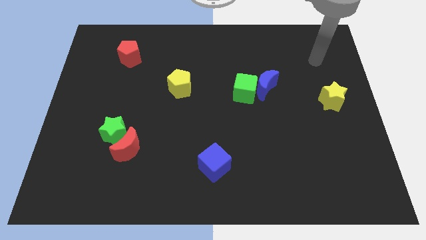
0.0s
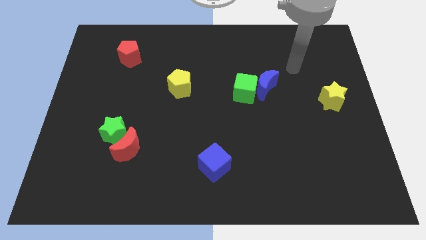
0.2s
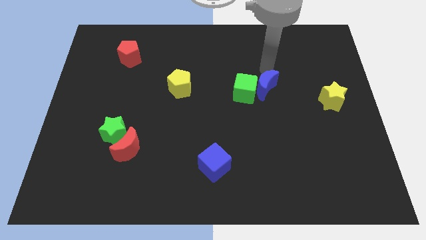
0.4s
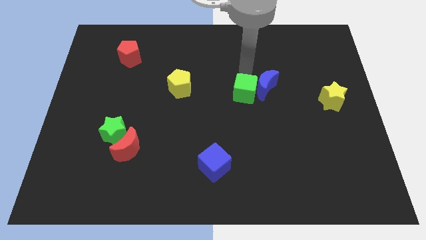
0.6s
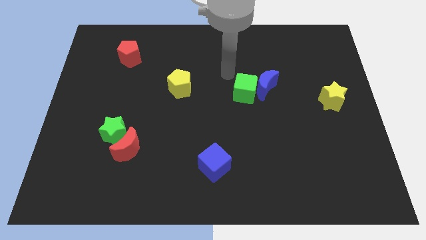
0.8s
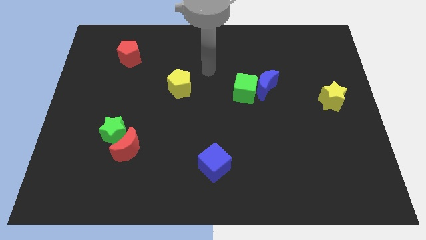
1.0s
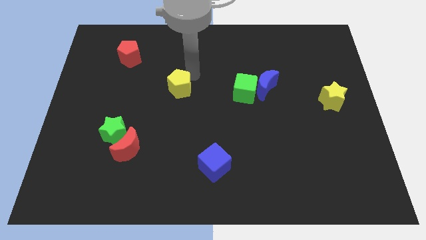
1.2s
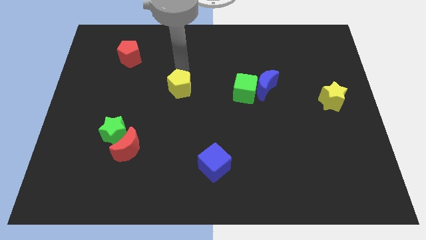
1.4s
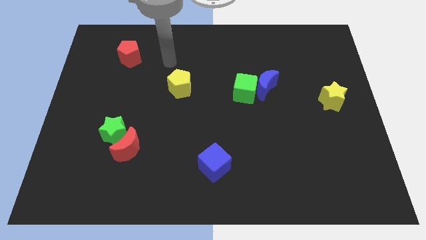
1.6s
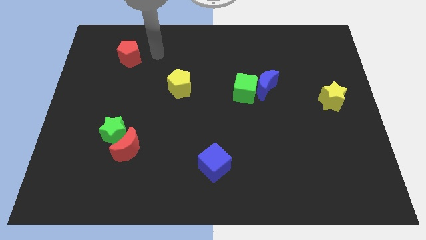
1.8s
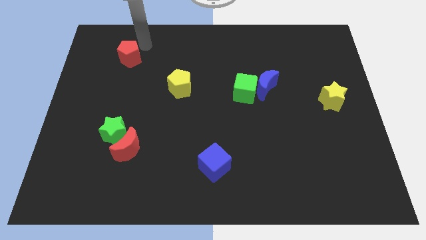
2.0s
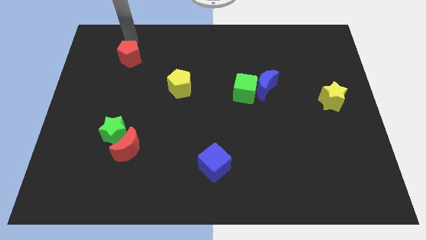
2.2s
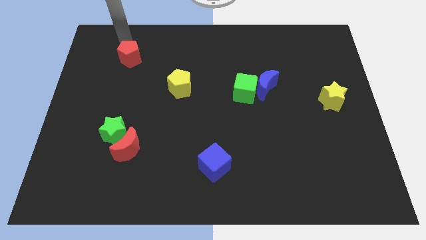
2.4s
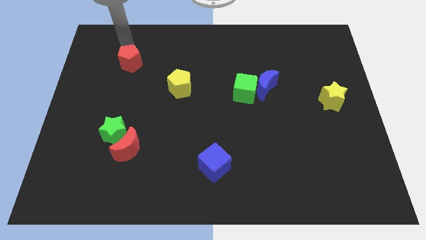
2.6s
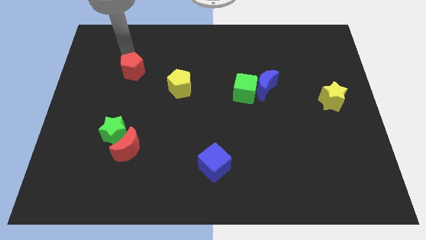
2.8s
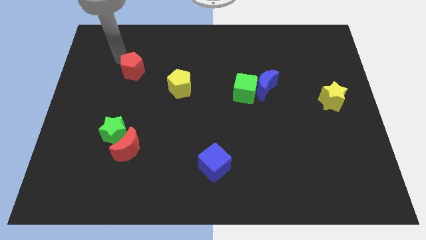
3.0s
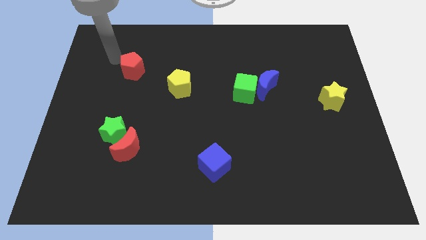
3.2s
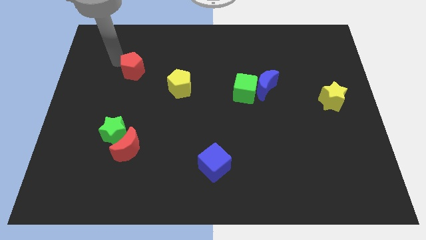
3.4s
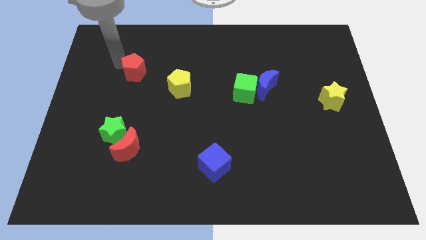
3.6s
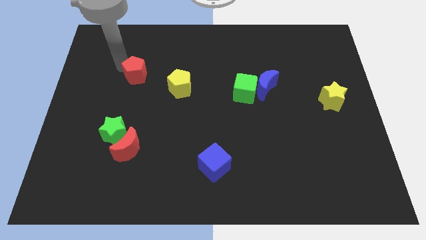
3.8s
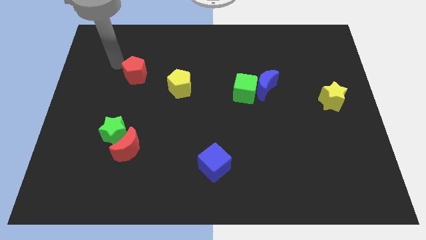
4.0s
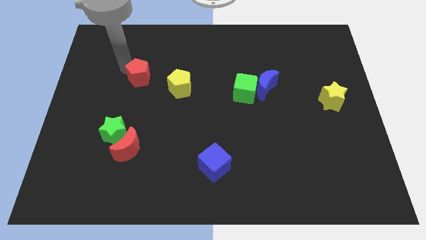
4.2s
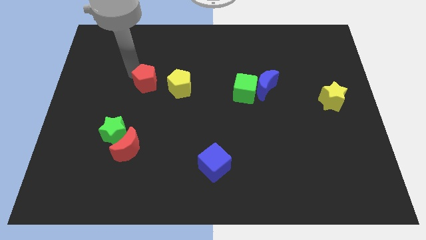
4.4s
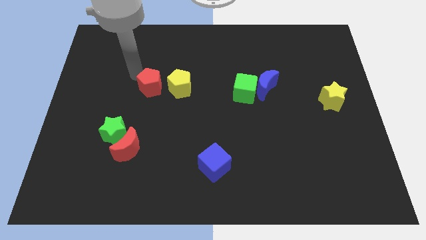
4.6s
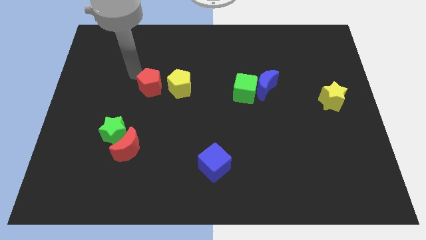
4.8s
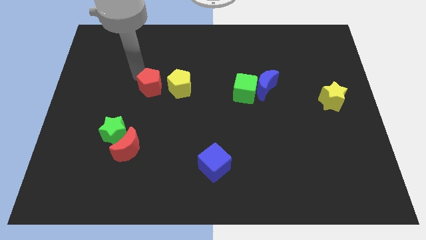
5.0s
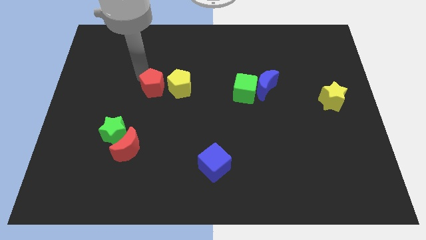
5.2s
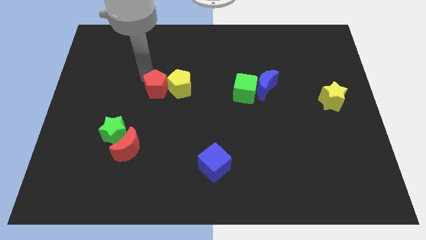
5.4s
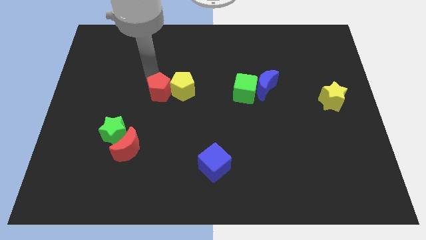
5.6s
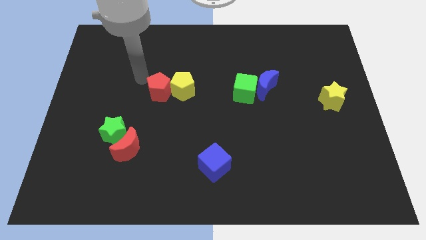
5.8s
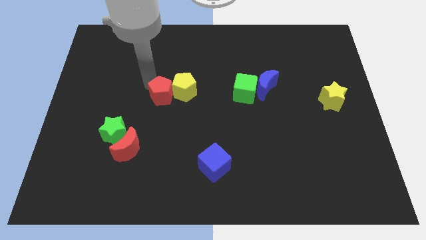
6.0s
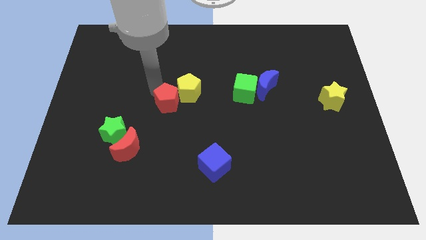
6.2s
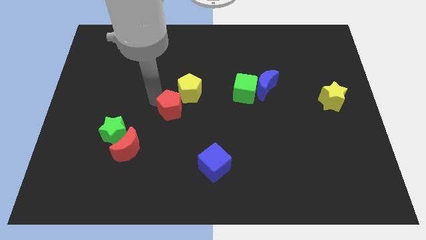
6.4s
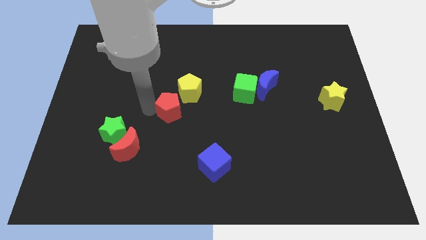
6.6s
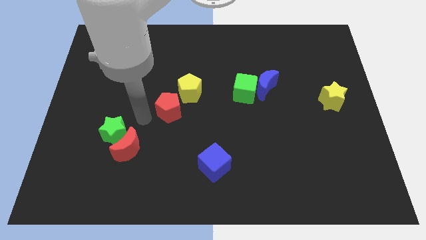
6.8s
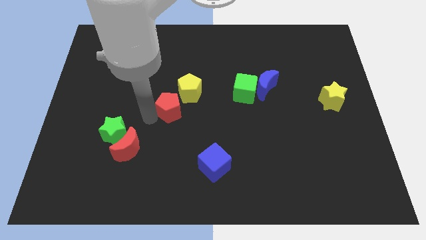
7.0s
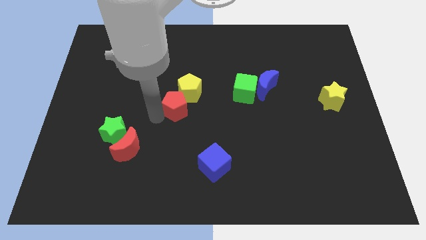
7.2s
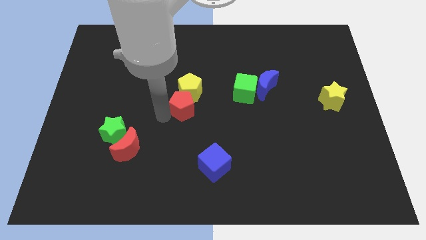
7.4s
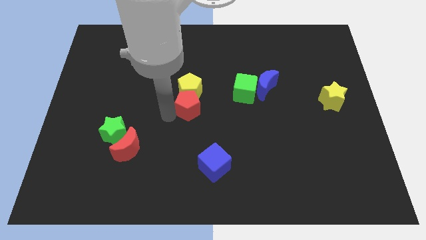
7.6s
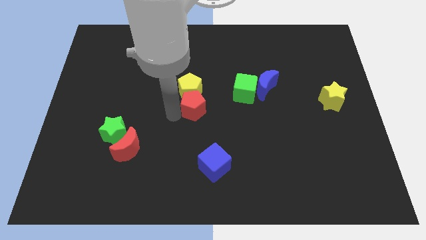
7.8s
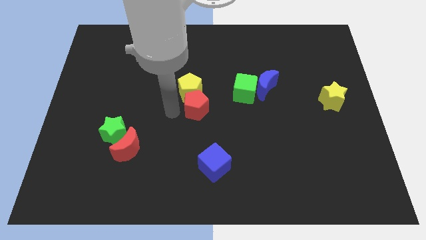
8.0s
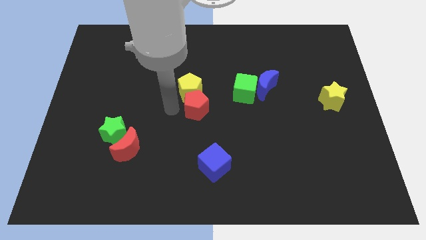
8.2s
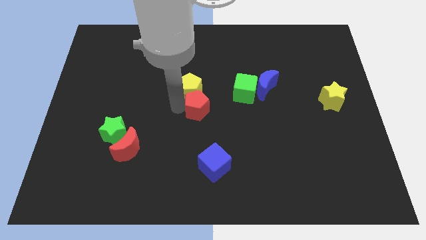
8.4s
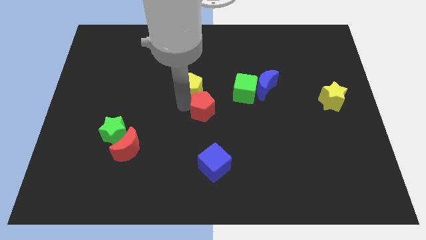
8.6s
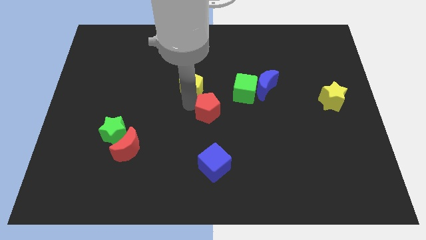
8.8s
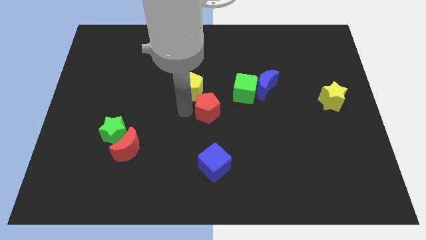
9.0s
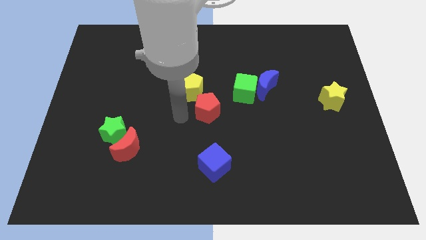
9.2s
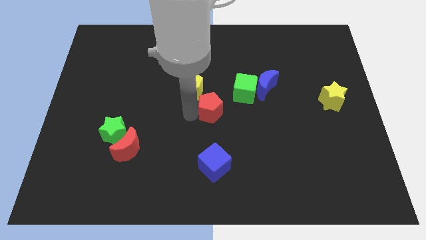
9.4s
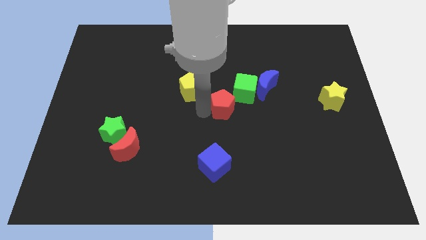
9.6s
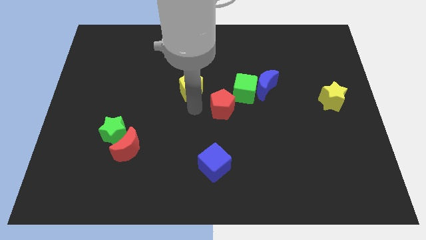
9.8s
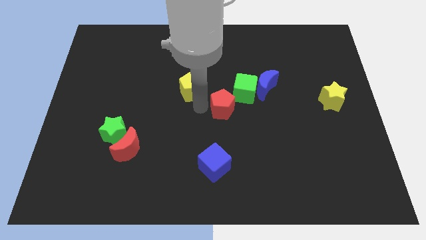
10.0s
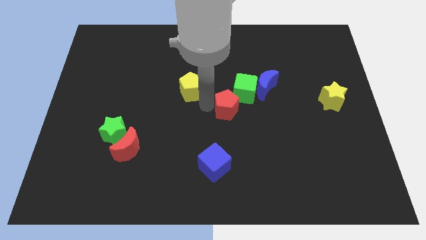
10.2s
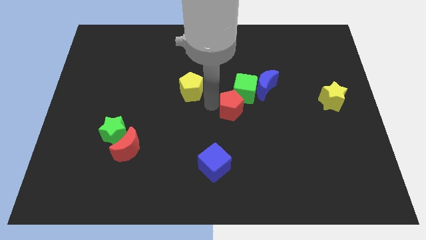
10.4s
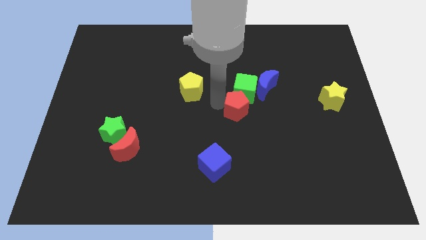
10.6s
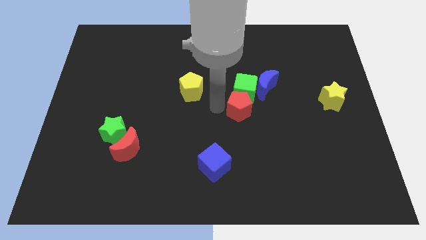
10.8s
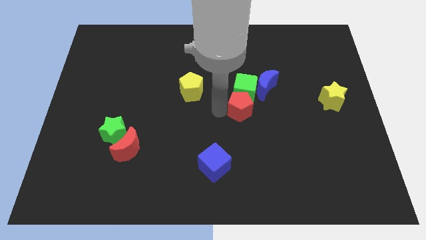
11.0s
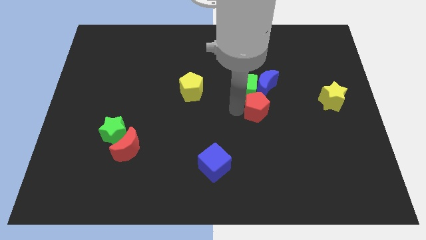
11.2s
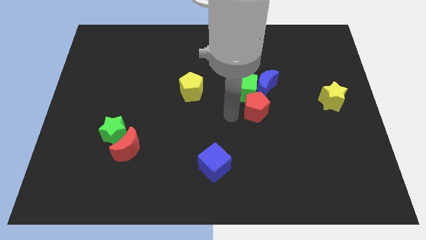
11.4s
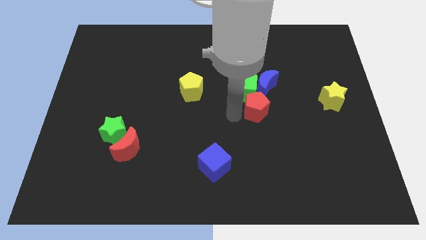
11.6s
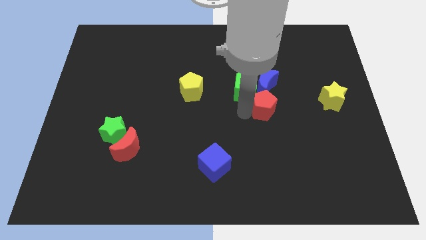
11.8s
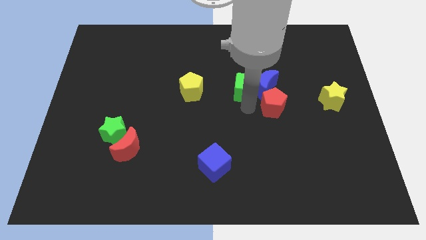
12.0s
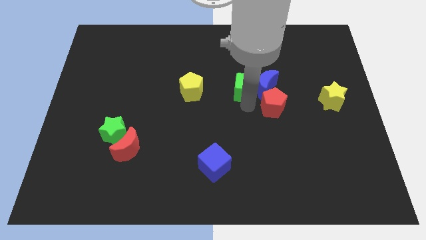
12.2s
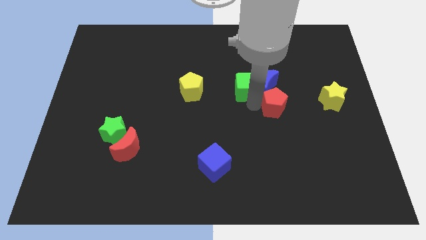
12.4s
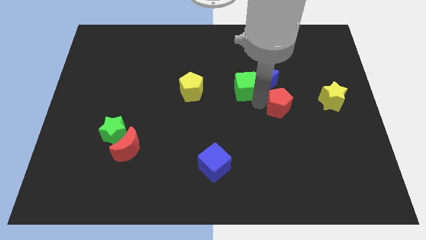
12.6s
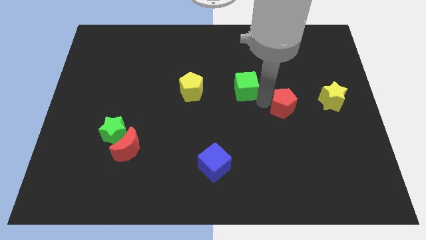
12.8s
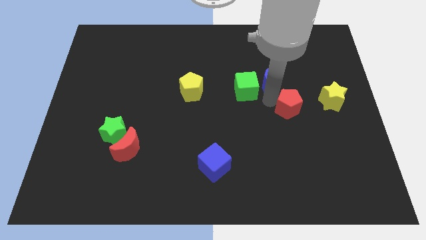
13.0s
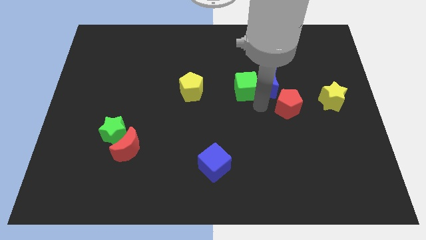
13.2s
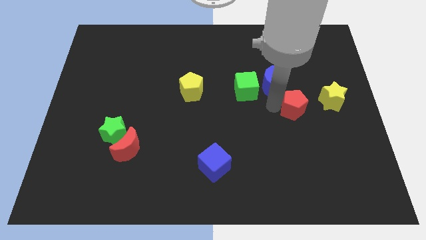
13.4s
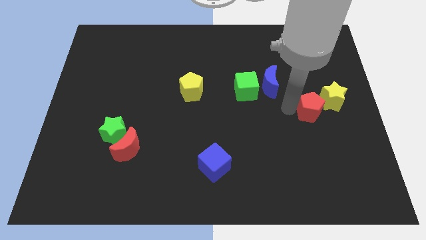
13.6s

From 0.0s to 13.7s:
move the red pentagon close to the yellow star

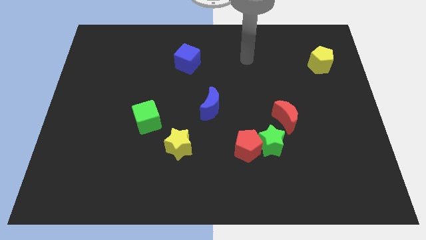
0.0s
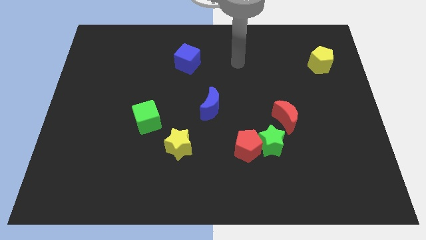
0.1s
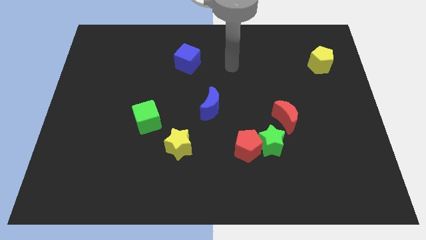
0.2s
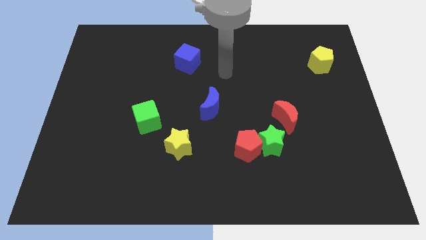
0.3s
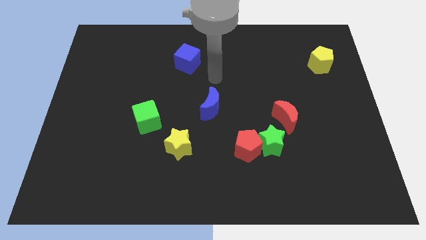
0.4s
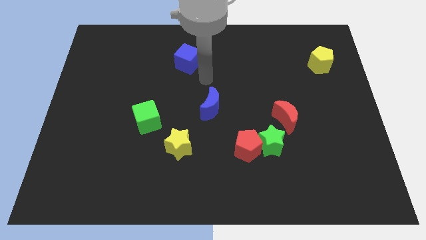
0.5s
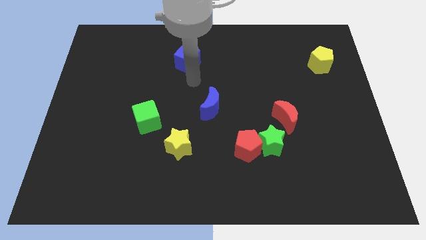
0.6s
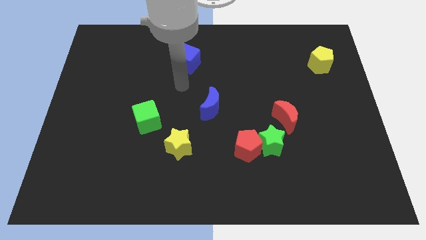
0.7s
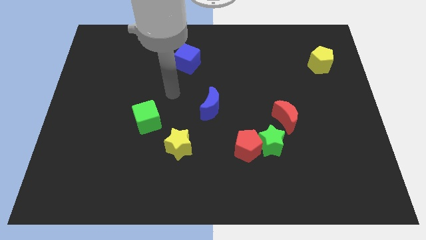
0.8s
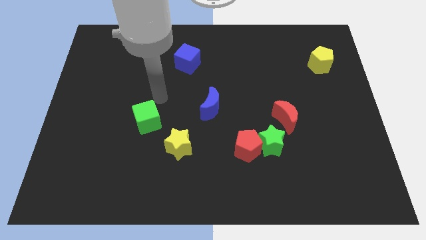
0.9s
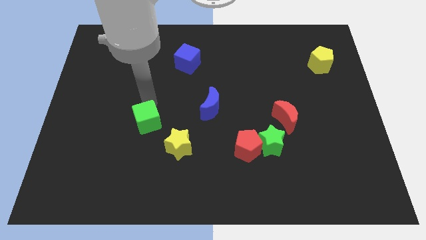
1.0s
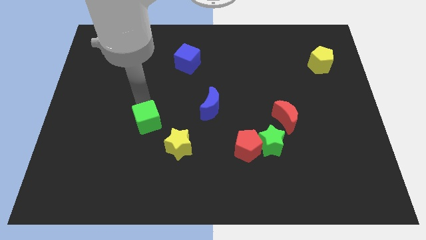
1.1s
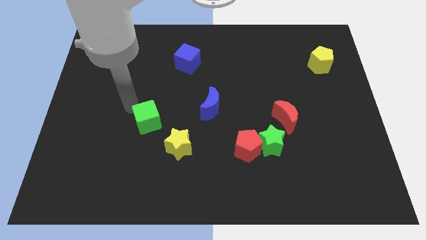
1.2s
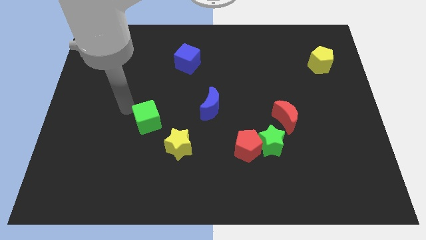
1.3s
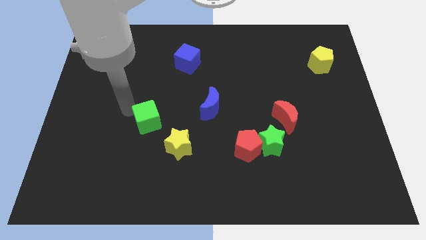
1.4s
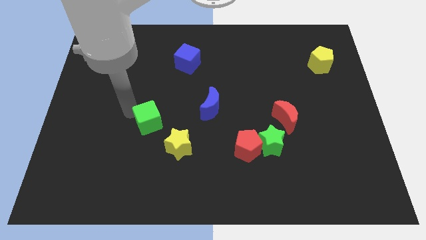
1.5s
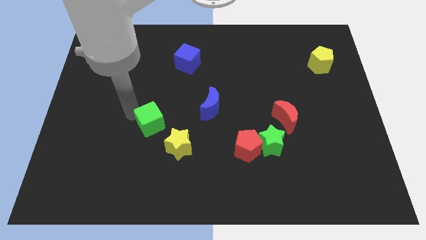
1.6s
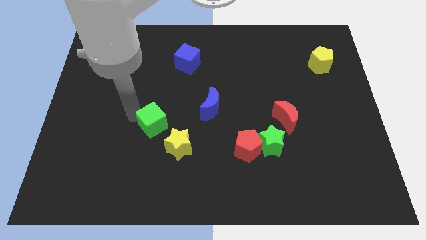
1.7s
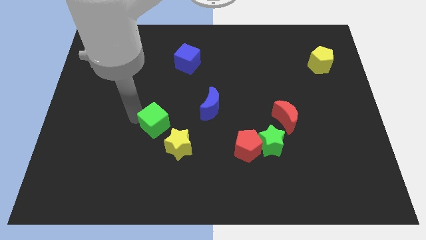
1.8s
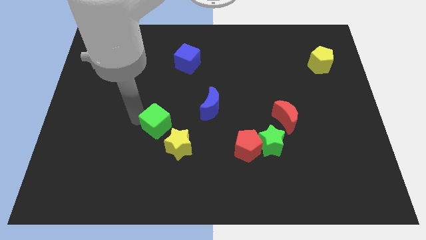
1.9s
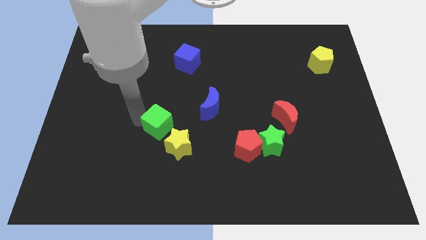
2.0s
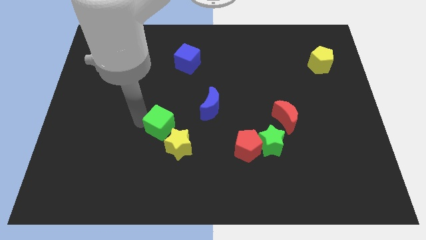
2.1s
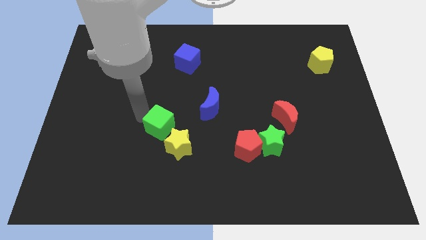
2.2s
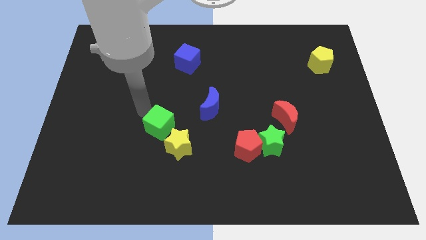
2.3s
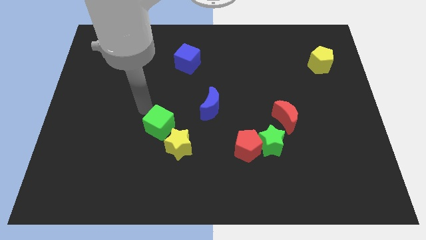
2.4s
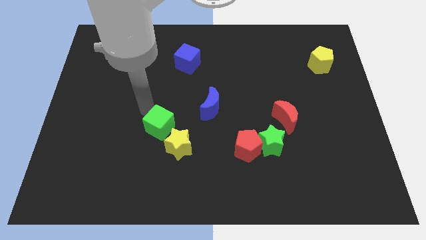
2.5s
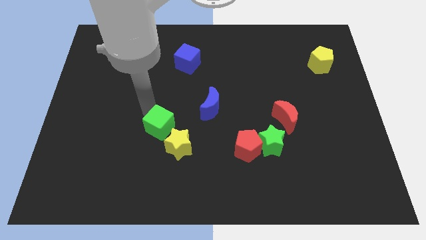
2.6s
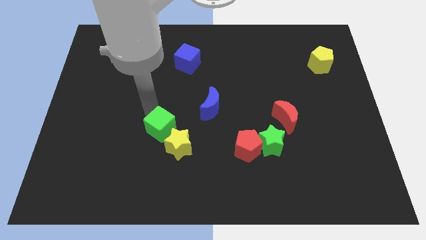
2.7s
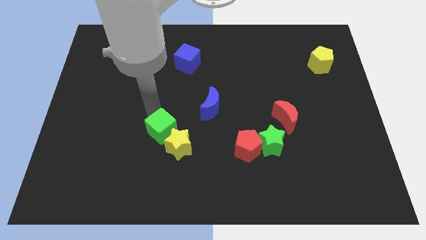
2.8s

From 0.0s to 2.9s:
slide the green cube next to the yellow star
